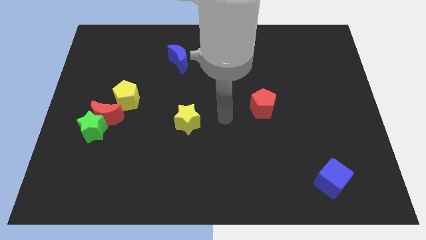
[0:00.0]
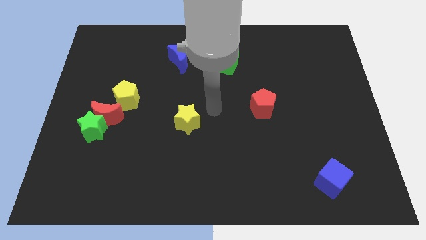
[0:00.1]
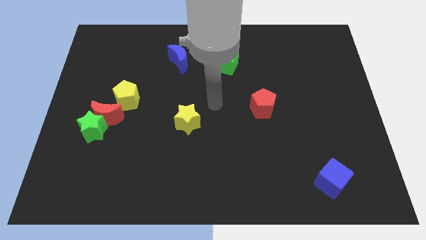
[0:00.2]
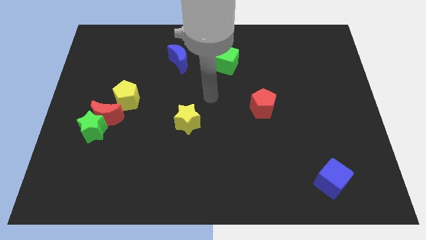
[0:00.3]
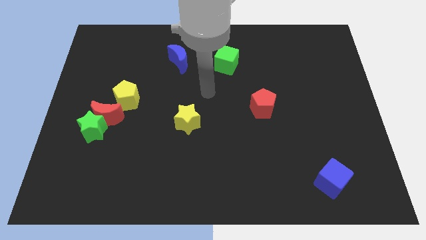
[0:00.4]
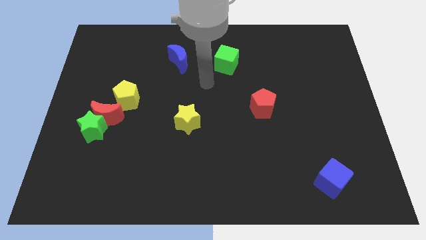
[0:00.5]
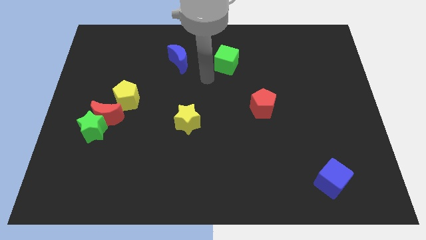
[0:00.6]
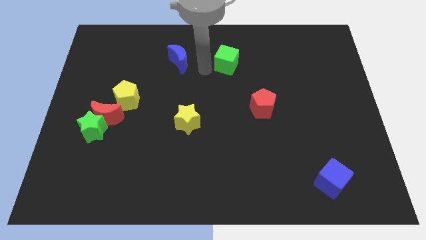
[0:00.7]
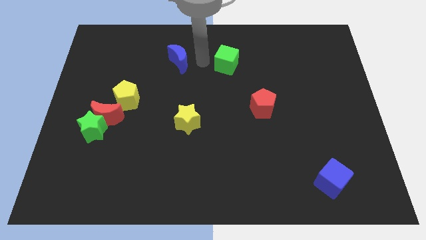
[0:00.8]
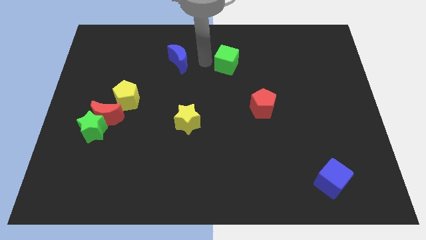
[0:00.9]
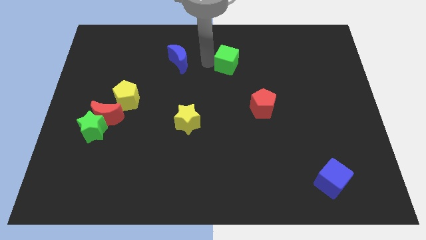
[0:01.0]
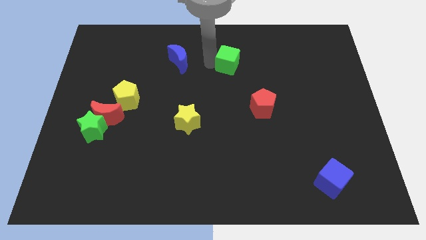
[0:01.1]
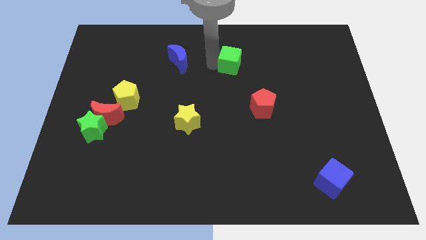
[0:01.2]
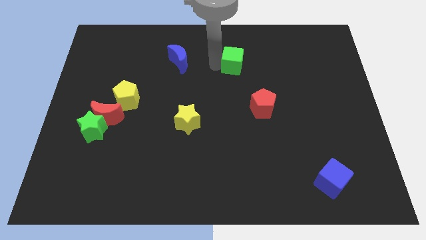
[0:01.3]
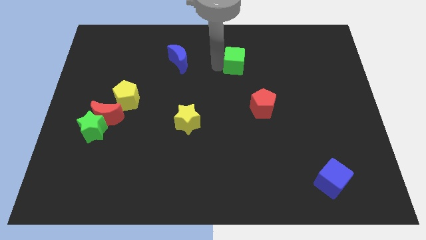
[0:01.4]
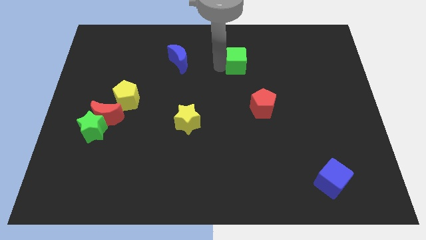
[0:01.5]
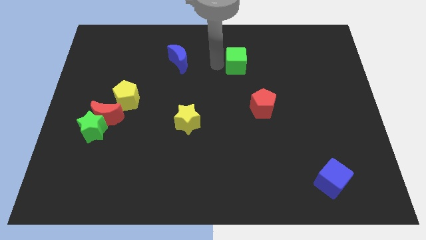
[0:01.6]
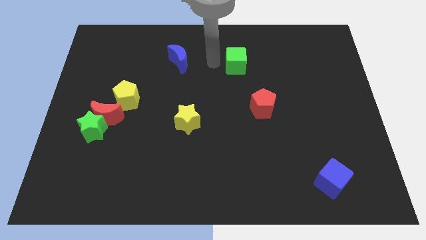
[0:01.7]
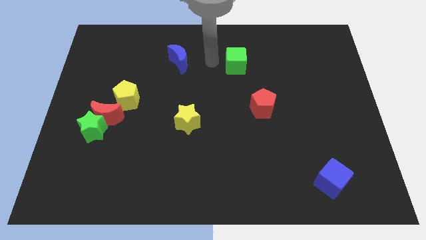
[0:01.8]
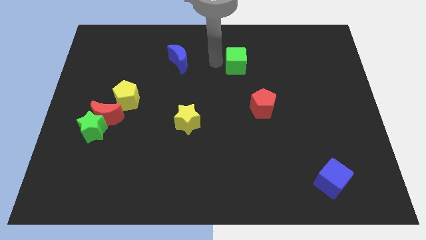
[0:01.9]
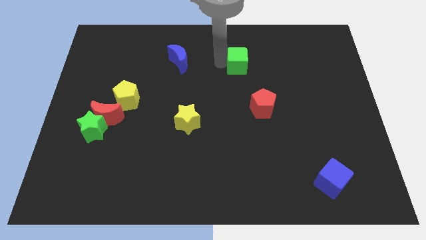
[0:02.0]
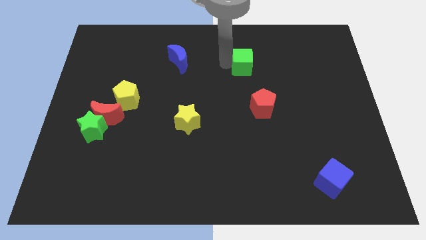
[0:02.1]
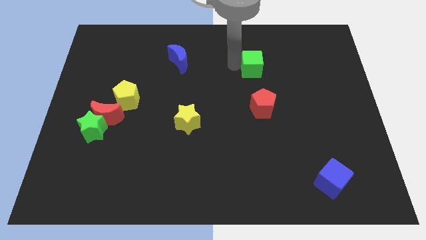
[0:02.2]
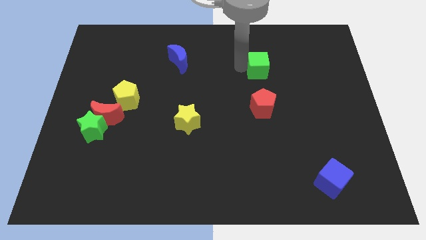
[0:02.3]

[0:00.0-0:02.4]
move the green cube a little bit to the right

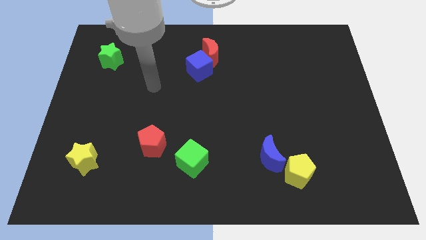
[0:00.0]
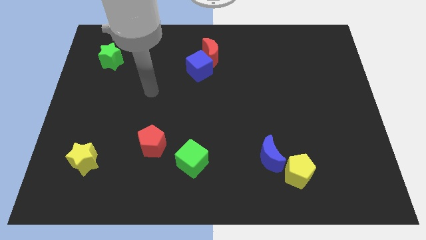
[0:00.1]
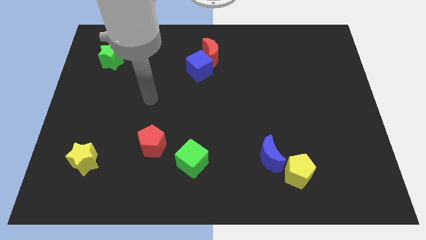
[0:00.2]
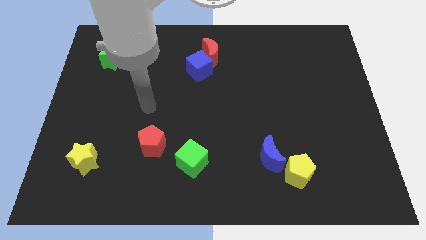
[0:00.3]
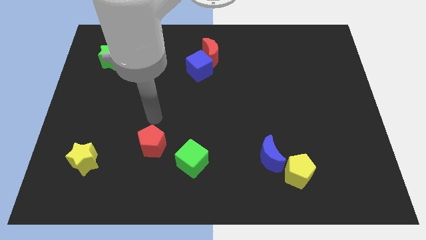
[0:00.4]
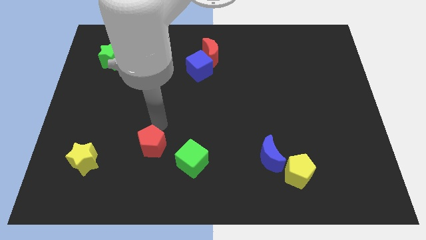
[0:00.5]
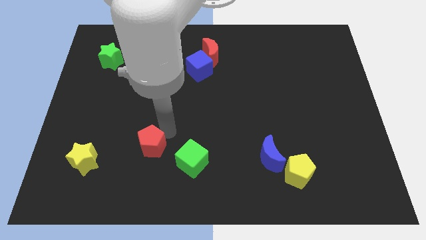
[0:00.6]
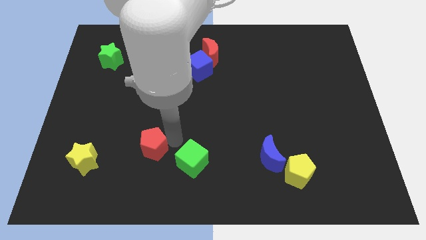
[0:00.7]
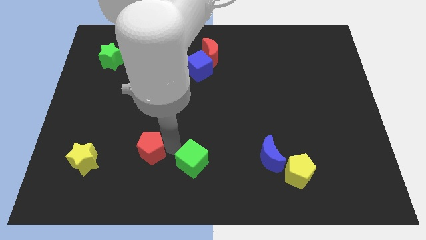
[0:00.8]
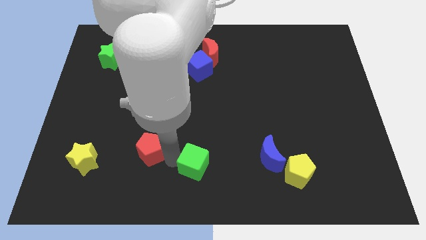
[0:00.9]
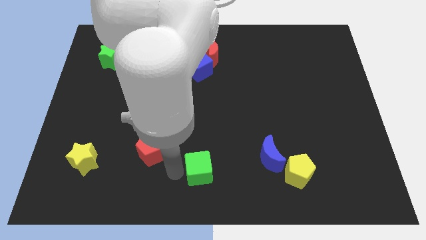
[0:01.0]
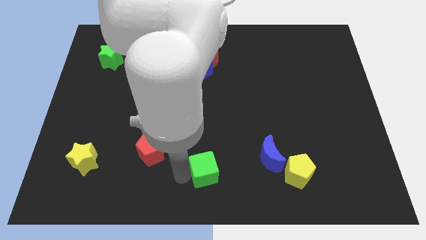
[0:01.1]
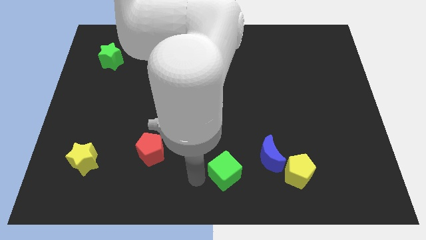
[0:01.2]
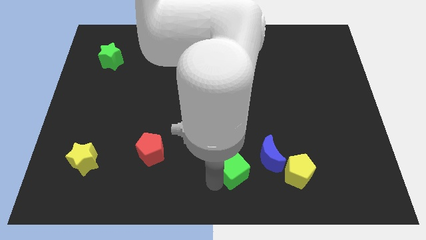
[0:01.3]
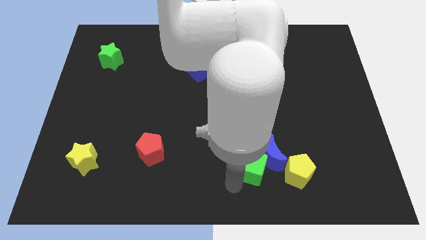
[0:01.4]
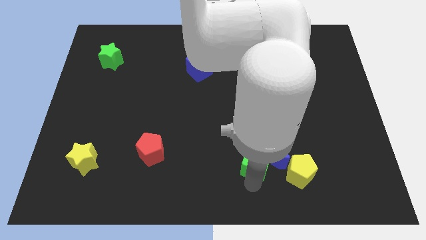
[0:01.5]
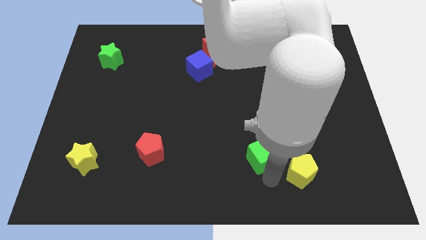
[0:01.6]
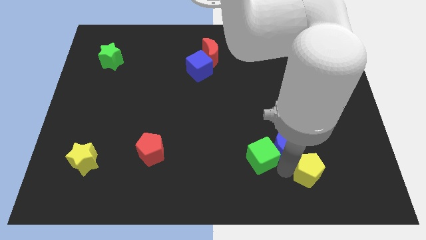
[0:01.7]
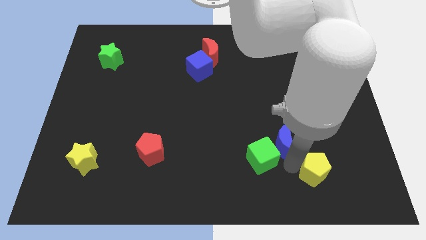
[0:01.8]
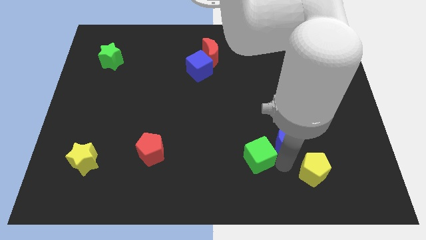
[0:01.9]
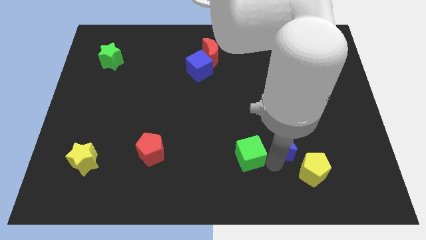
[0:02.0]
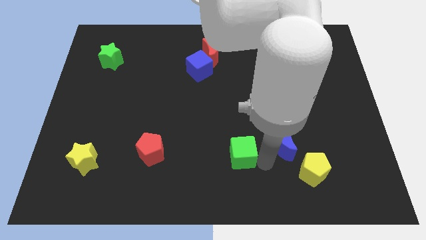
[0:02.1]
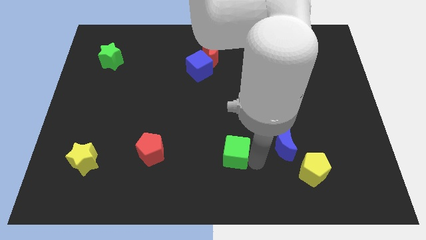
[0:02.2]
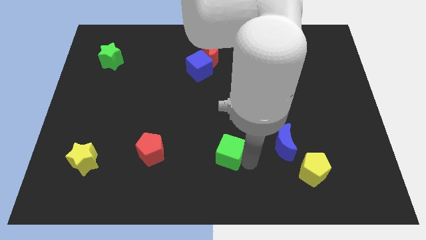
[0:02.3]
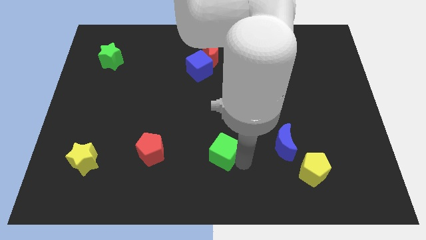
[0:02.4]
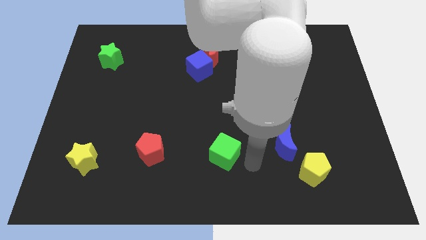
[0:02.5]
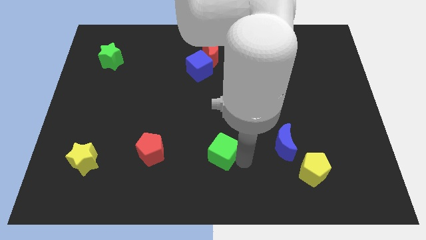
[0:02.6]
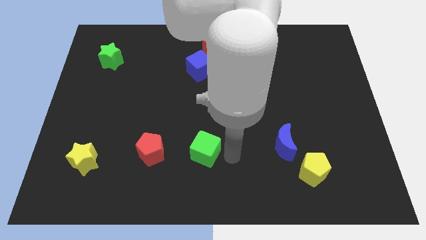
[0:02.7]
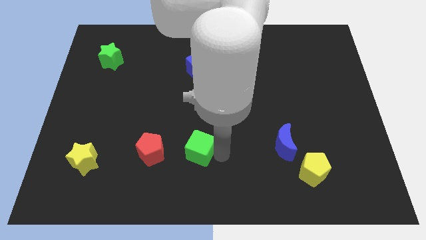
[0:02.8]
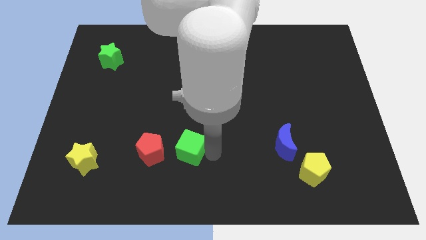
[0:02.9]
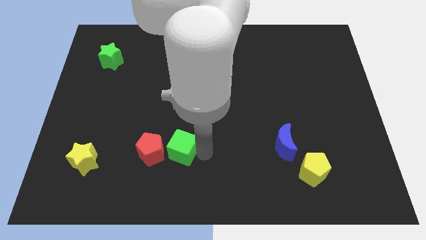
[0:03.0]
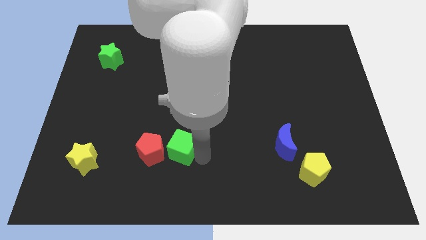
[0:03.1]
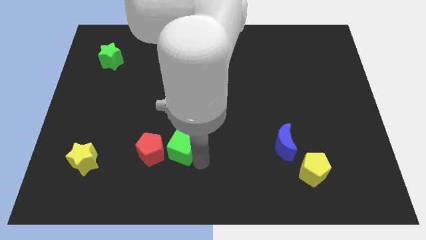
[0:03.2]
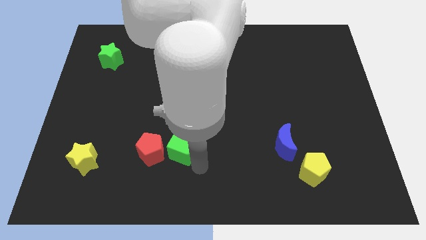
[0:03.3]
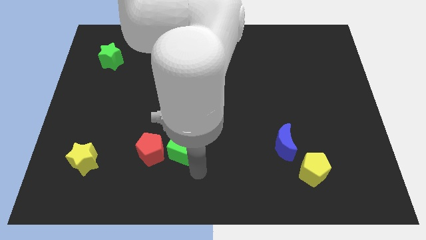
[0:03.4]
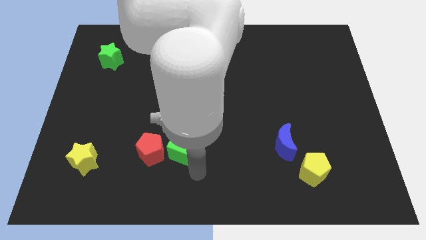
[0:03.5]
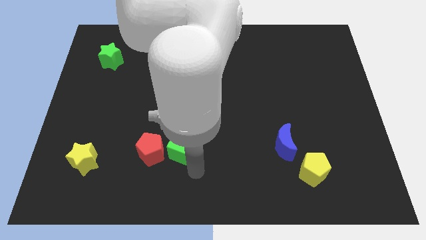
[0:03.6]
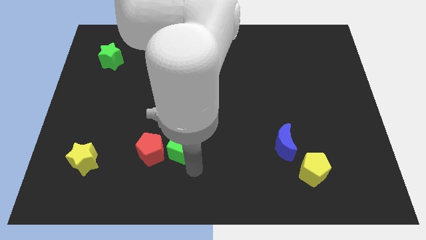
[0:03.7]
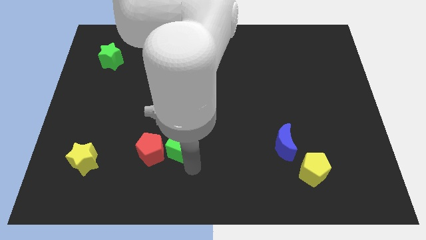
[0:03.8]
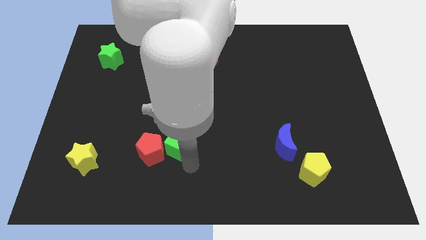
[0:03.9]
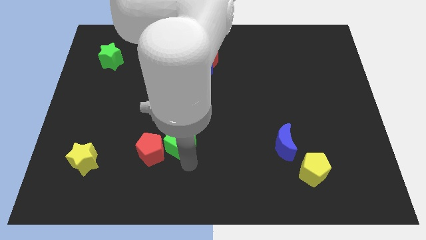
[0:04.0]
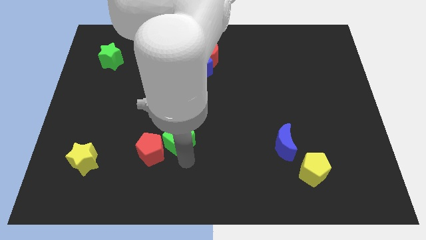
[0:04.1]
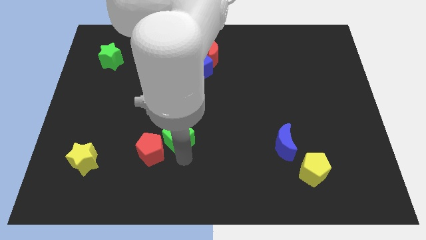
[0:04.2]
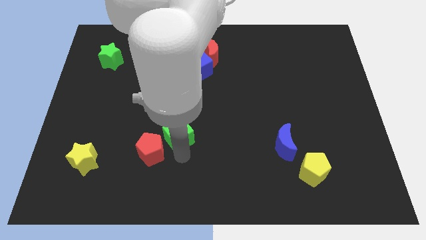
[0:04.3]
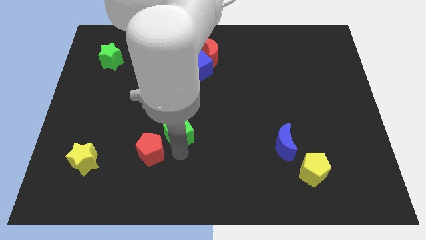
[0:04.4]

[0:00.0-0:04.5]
push the green cube a little up and to the left

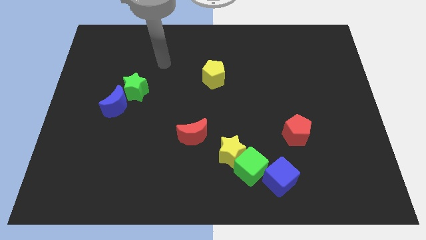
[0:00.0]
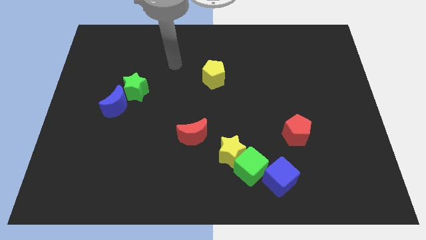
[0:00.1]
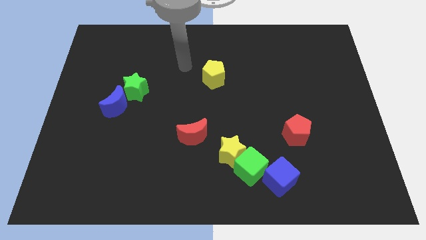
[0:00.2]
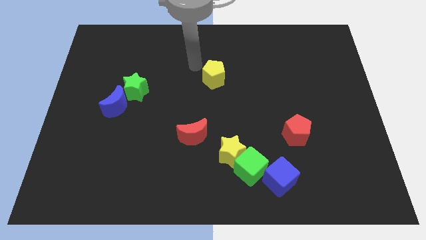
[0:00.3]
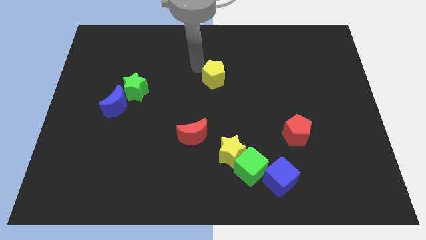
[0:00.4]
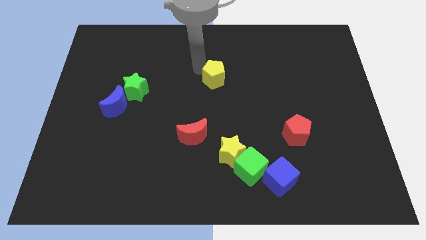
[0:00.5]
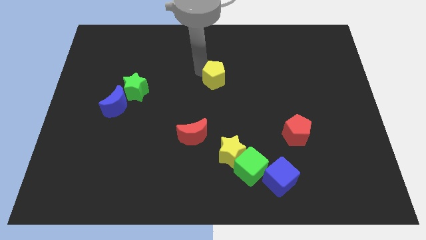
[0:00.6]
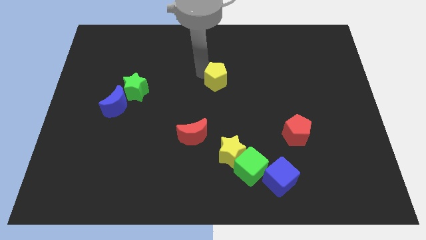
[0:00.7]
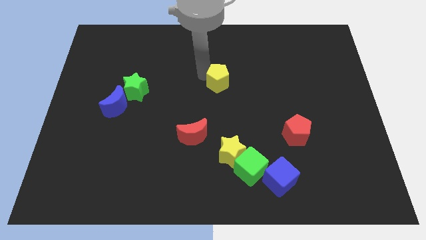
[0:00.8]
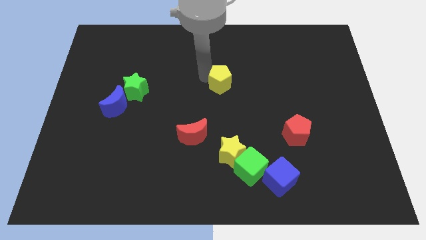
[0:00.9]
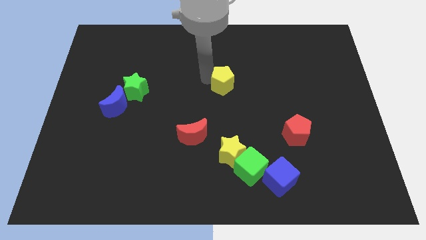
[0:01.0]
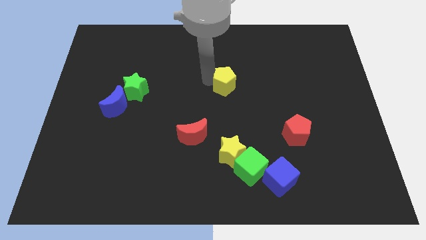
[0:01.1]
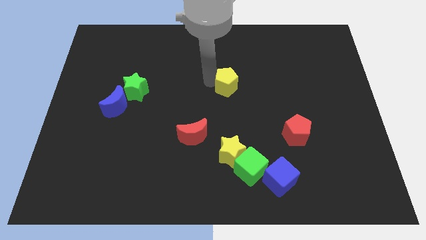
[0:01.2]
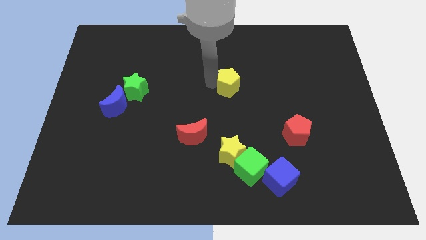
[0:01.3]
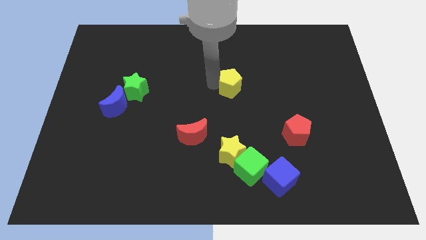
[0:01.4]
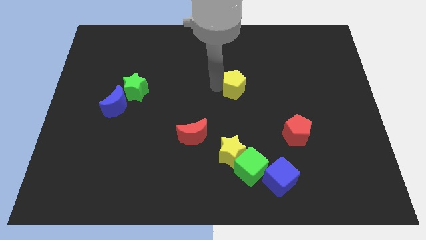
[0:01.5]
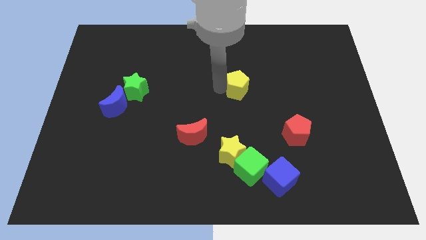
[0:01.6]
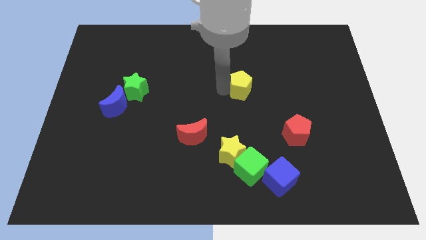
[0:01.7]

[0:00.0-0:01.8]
slightly slide the yellow pentagon downwards and to the right
